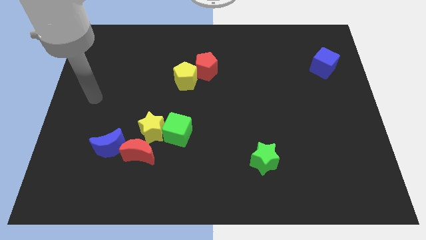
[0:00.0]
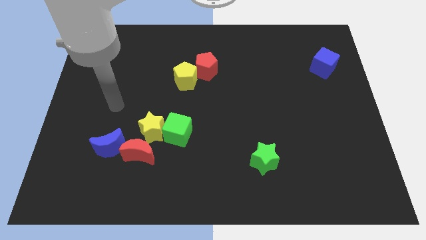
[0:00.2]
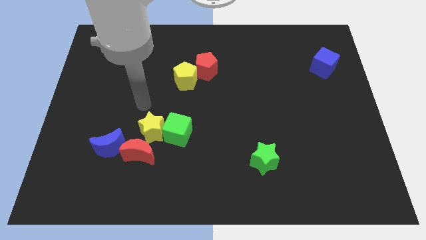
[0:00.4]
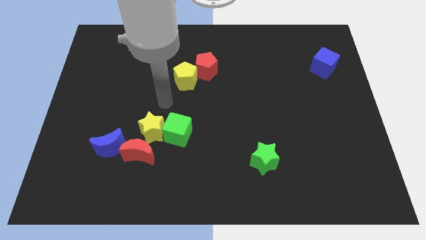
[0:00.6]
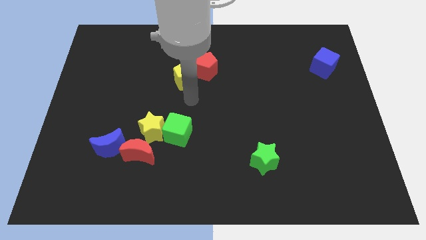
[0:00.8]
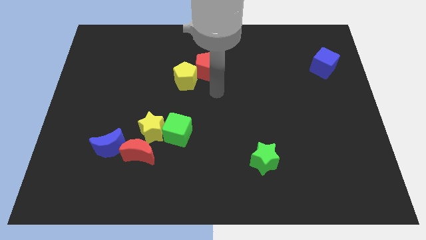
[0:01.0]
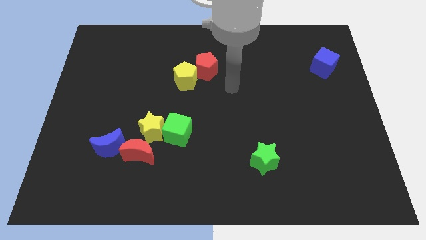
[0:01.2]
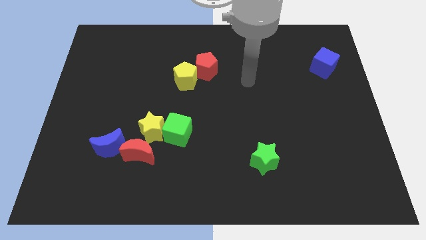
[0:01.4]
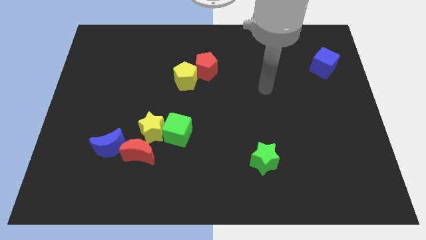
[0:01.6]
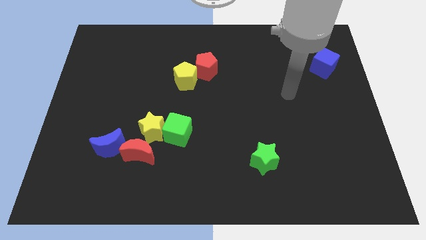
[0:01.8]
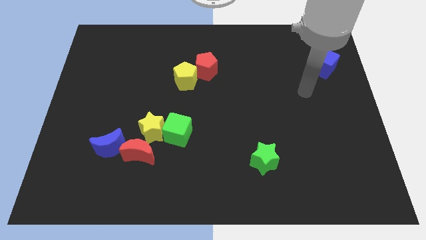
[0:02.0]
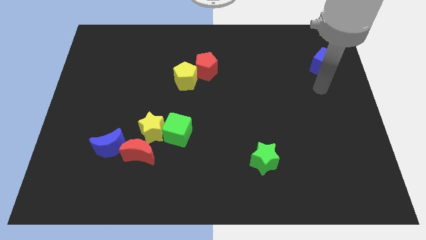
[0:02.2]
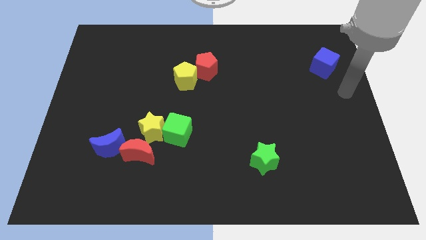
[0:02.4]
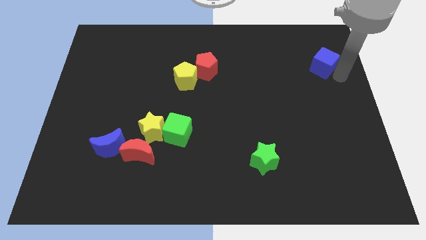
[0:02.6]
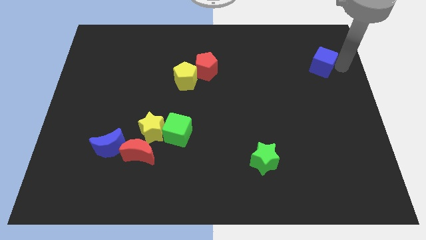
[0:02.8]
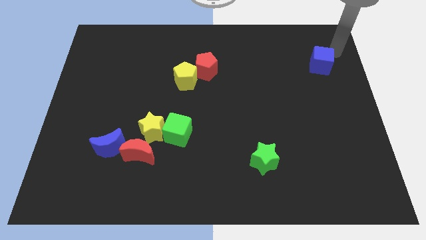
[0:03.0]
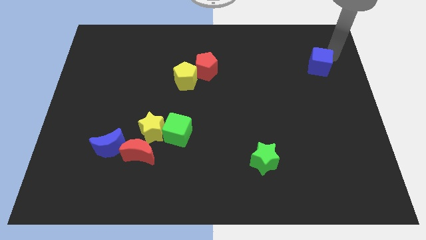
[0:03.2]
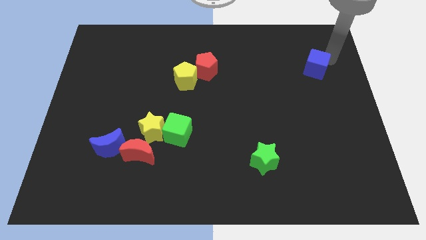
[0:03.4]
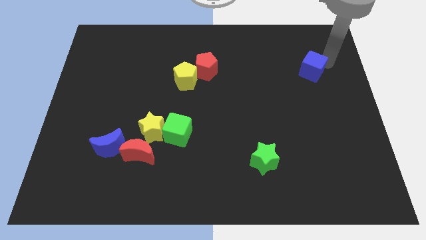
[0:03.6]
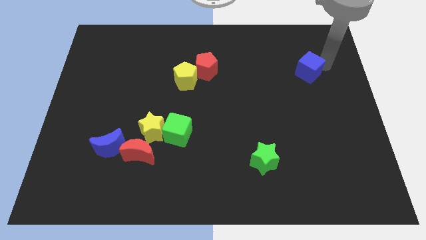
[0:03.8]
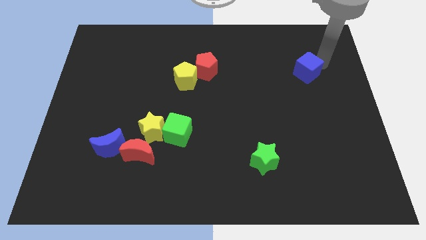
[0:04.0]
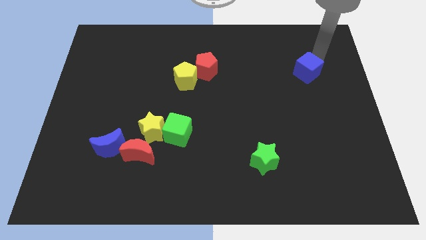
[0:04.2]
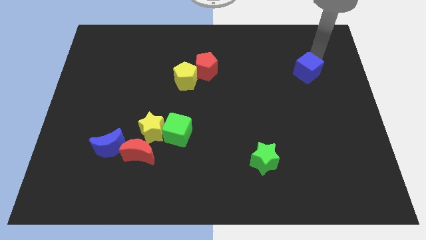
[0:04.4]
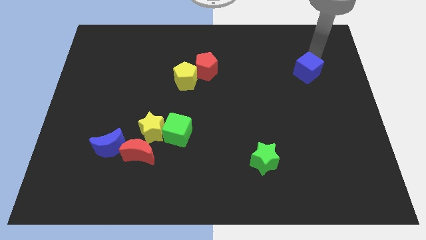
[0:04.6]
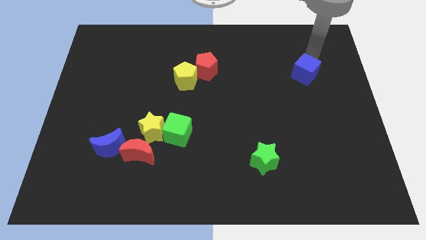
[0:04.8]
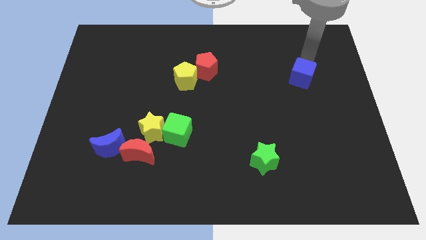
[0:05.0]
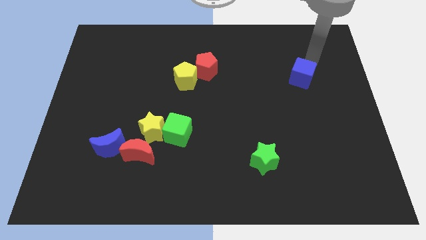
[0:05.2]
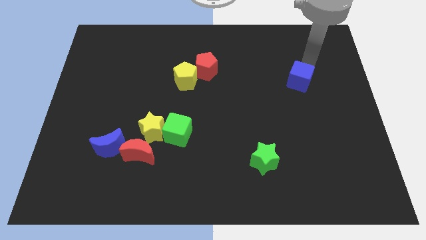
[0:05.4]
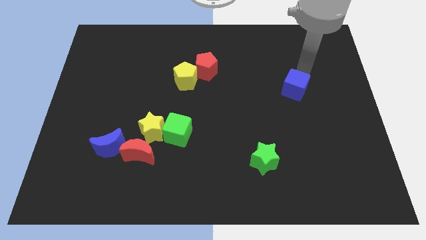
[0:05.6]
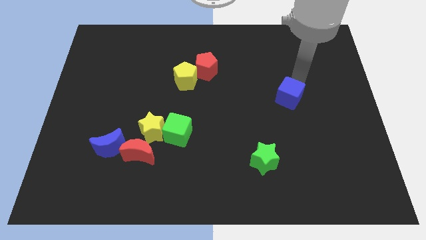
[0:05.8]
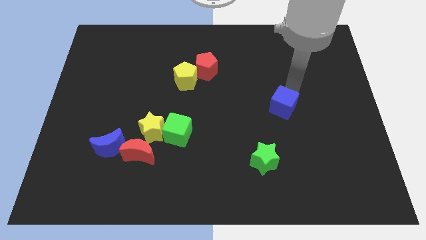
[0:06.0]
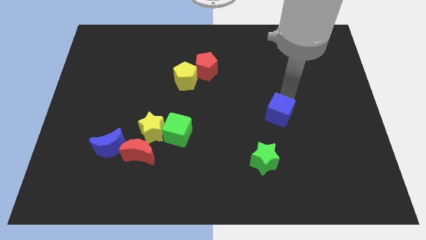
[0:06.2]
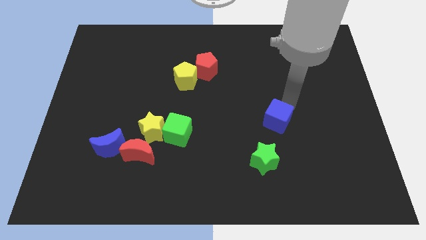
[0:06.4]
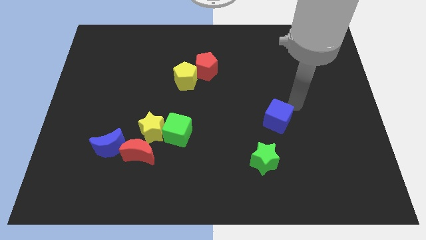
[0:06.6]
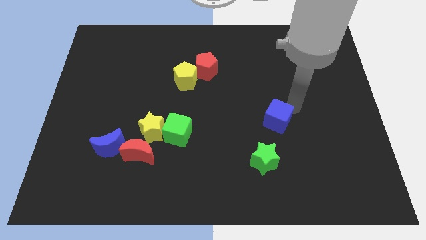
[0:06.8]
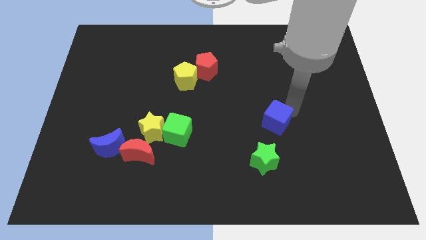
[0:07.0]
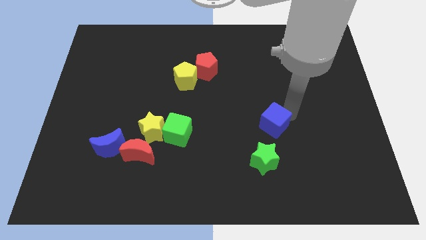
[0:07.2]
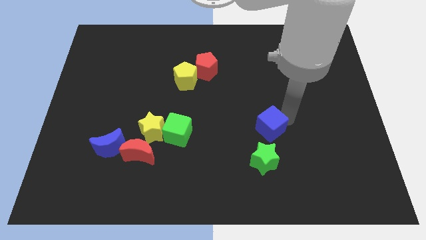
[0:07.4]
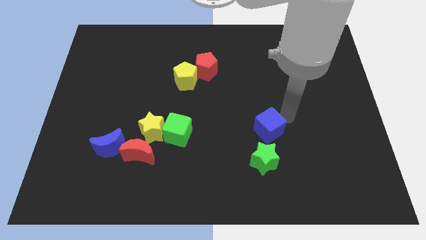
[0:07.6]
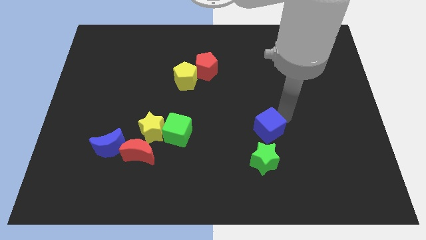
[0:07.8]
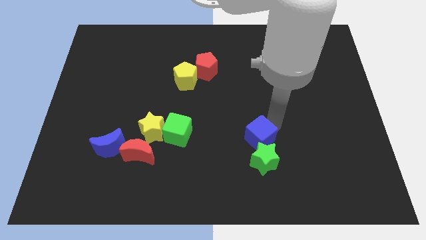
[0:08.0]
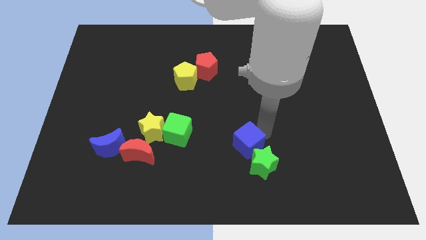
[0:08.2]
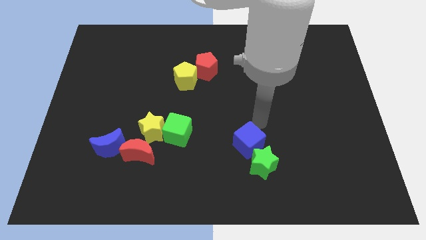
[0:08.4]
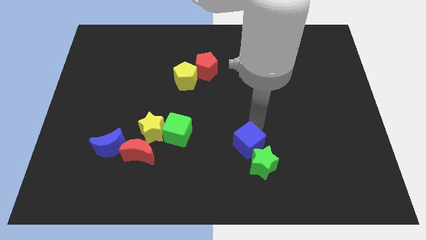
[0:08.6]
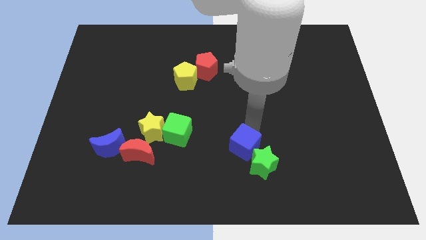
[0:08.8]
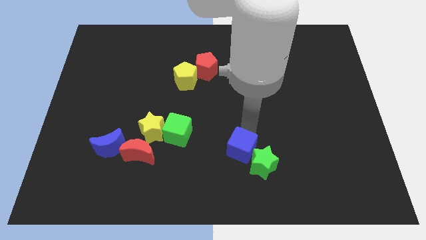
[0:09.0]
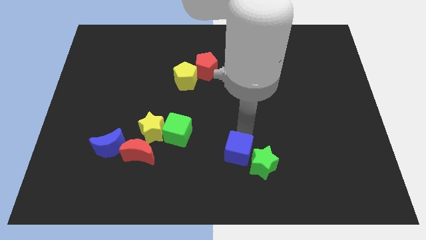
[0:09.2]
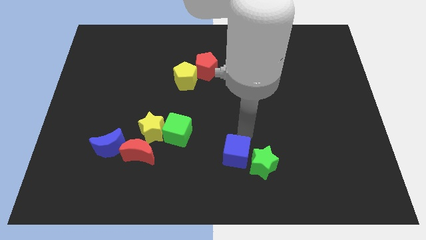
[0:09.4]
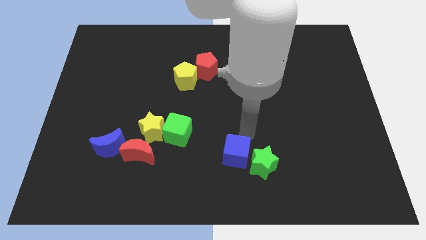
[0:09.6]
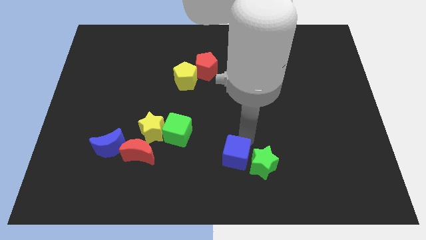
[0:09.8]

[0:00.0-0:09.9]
push the blue cube to the bottom

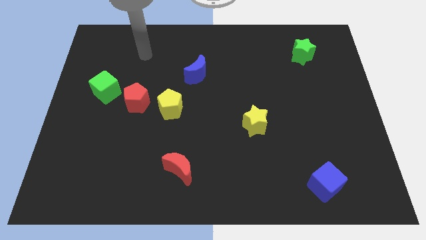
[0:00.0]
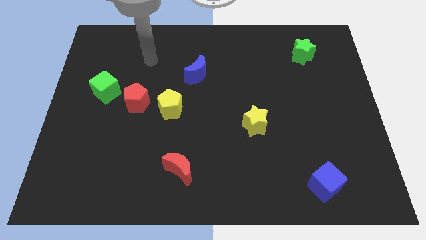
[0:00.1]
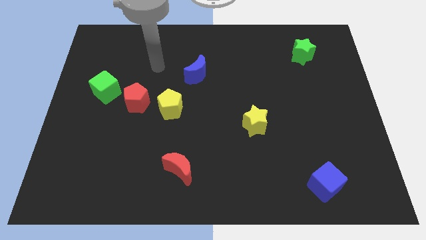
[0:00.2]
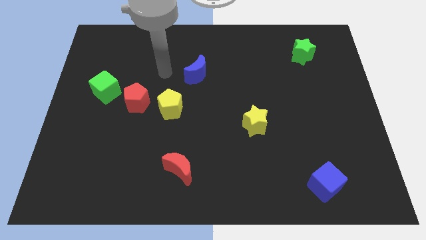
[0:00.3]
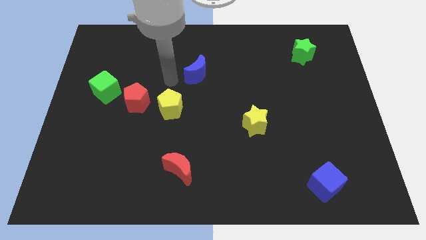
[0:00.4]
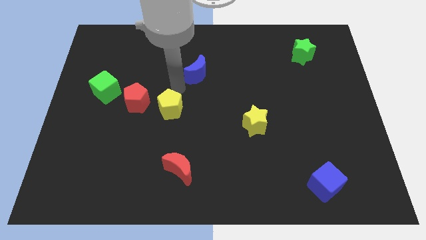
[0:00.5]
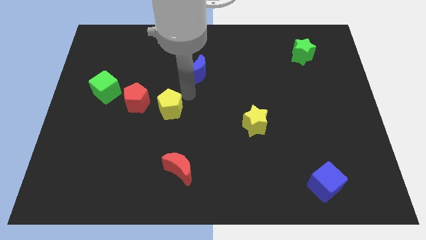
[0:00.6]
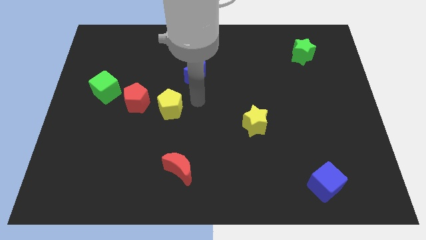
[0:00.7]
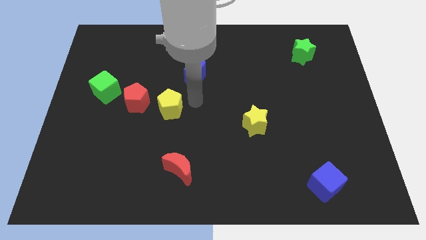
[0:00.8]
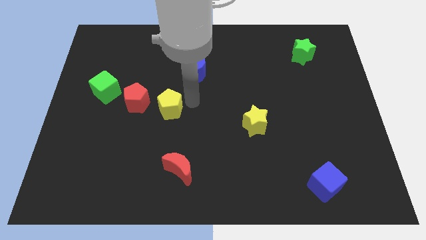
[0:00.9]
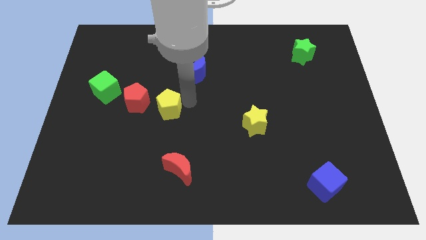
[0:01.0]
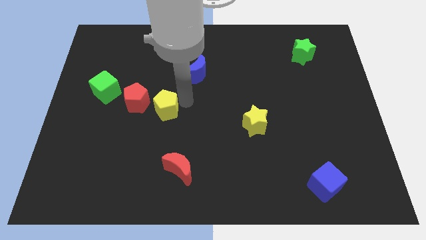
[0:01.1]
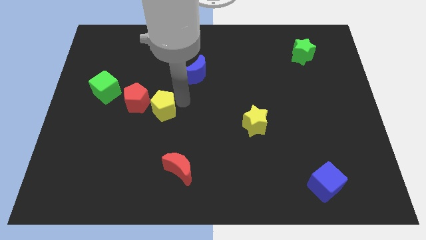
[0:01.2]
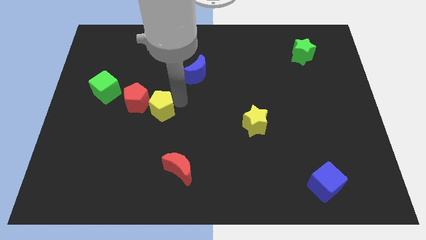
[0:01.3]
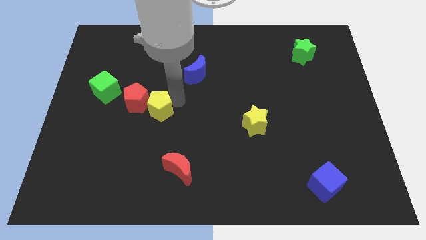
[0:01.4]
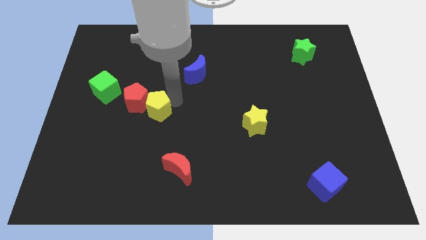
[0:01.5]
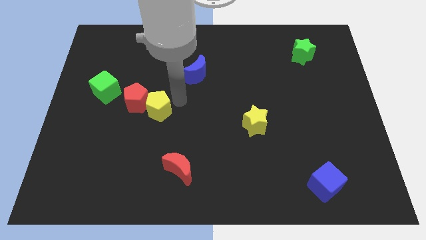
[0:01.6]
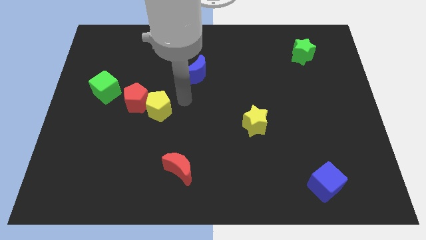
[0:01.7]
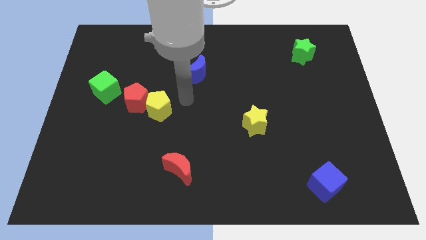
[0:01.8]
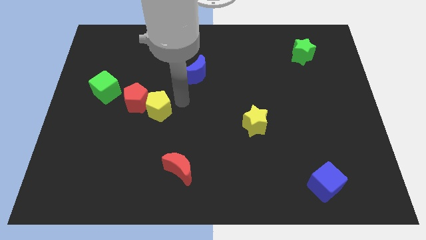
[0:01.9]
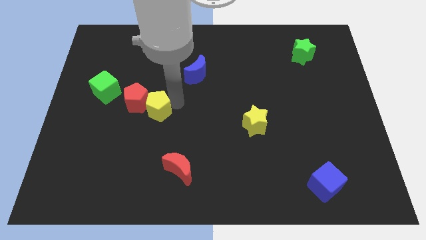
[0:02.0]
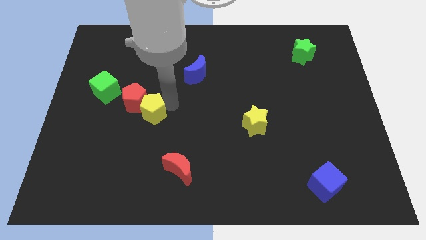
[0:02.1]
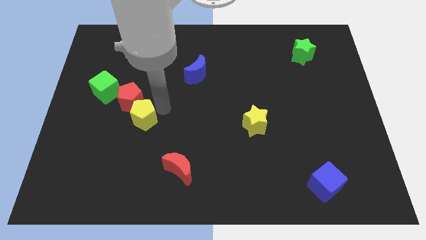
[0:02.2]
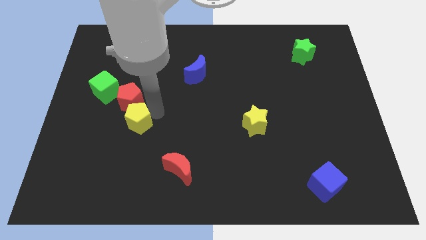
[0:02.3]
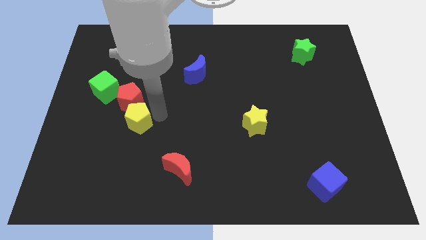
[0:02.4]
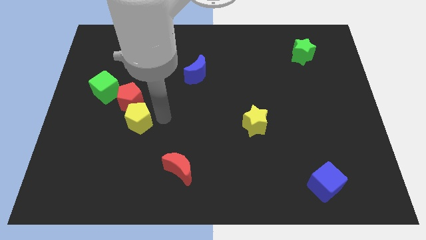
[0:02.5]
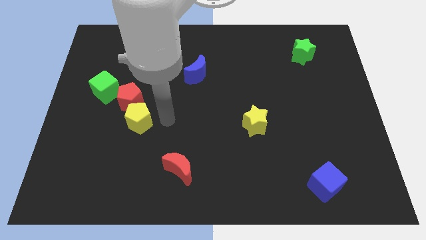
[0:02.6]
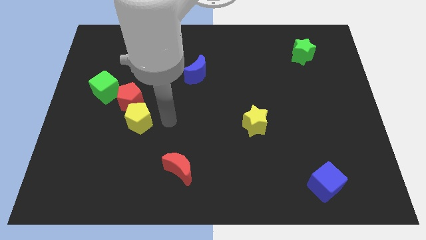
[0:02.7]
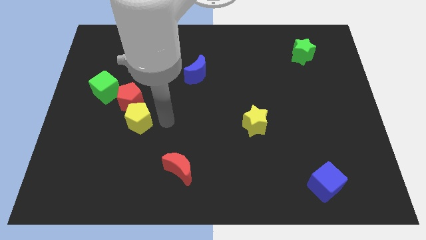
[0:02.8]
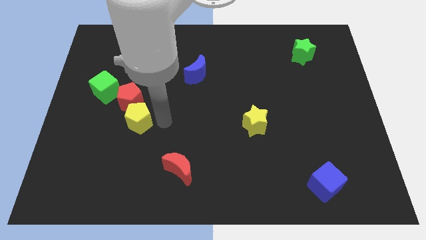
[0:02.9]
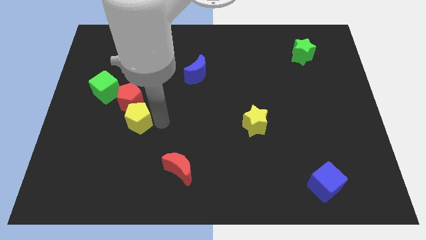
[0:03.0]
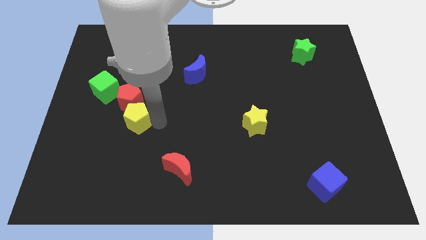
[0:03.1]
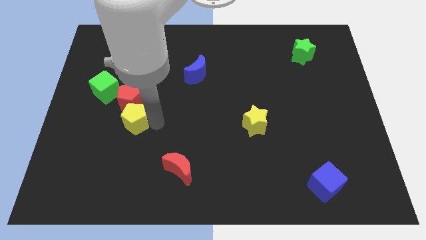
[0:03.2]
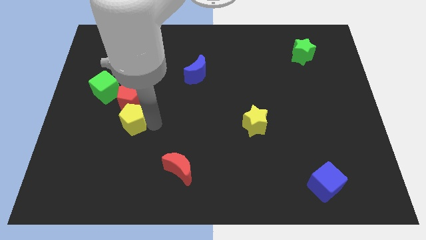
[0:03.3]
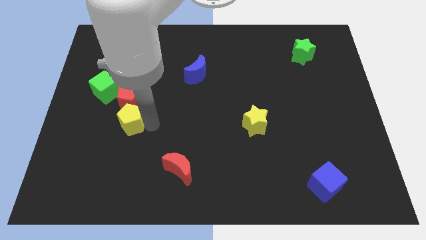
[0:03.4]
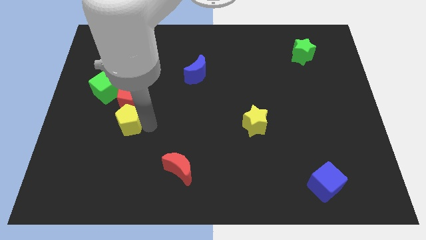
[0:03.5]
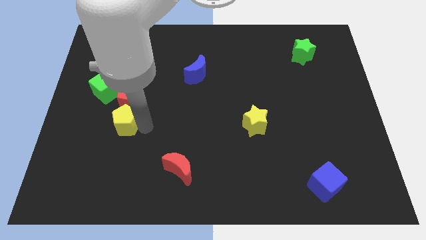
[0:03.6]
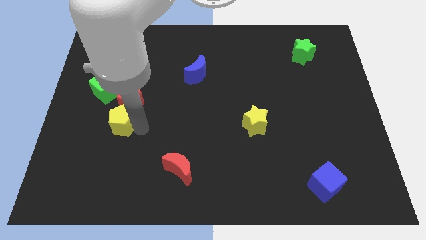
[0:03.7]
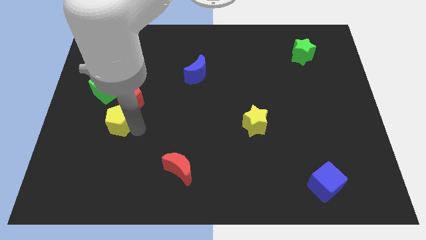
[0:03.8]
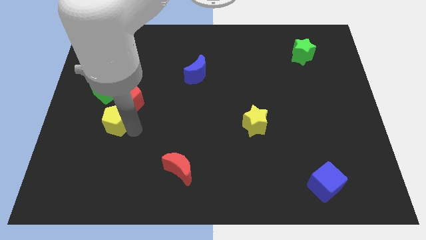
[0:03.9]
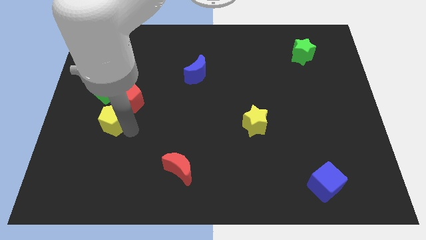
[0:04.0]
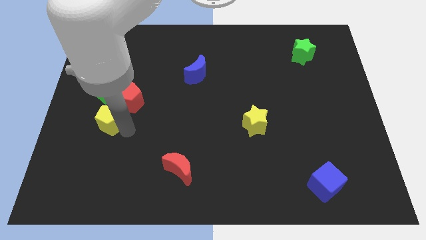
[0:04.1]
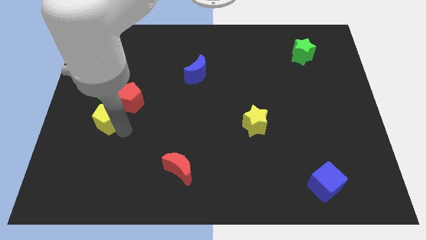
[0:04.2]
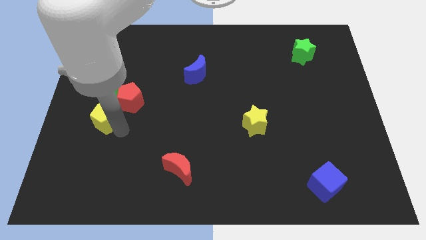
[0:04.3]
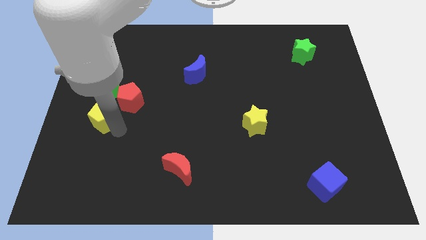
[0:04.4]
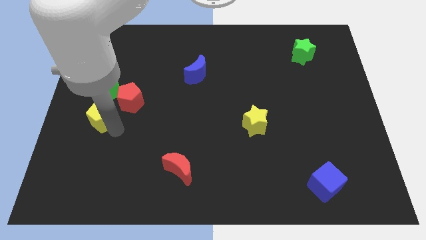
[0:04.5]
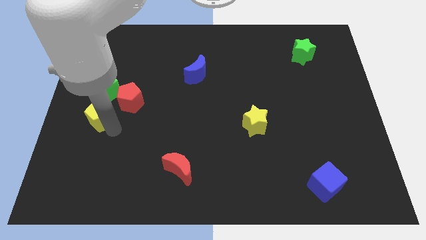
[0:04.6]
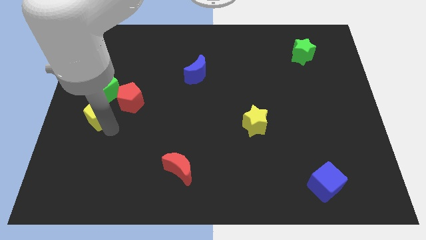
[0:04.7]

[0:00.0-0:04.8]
push the yellow pentagon to the left side of the board
